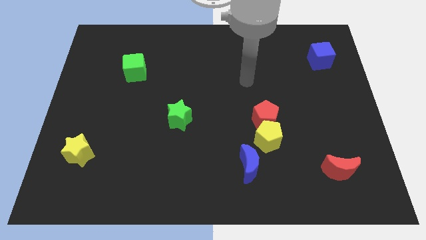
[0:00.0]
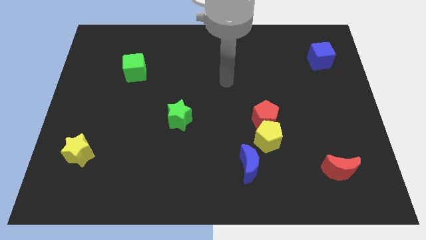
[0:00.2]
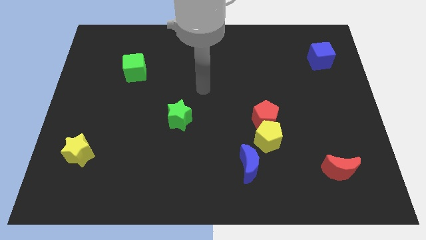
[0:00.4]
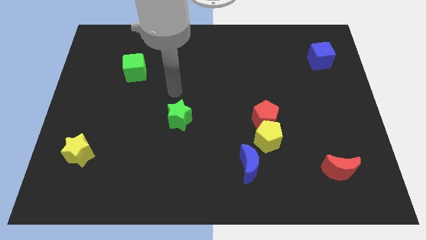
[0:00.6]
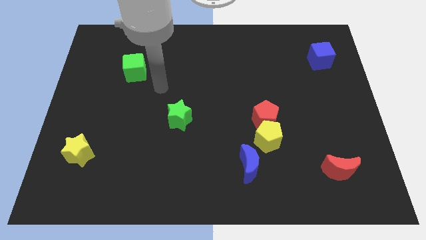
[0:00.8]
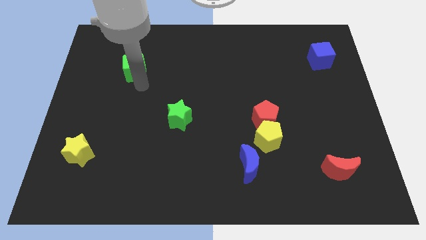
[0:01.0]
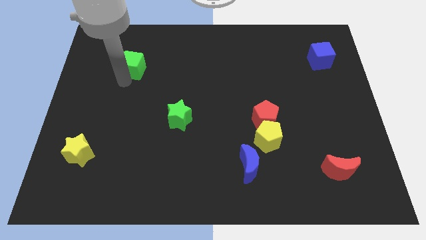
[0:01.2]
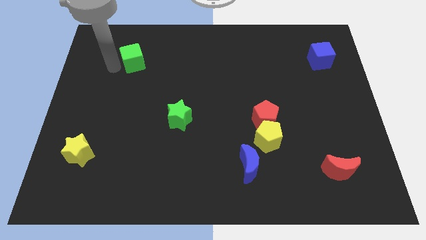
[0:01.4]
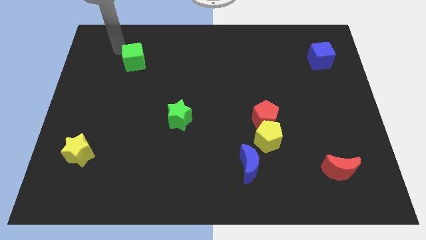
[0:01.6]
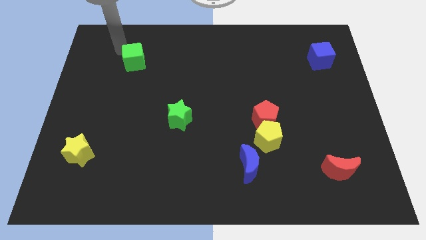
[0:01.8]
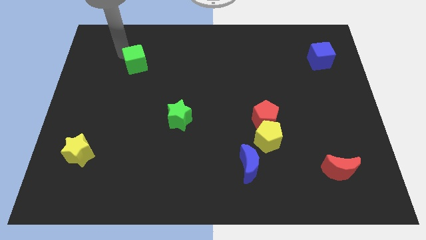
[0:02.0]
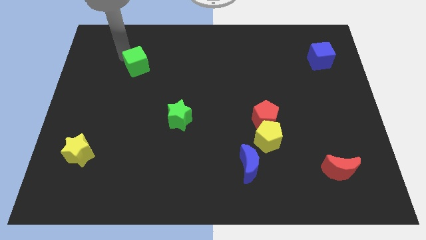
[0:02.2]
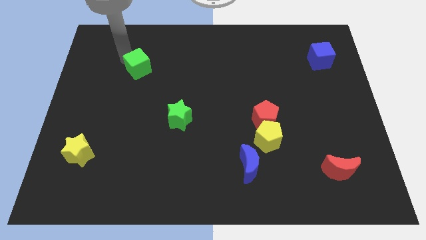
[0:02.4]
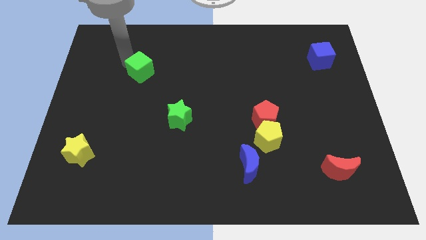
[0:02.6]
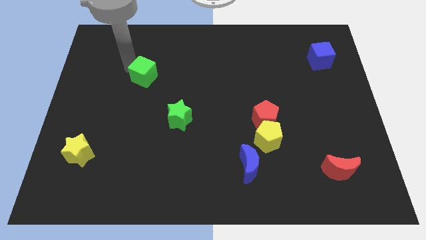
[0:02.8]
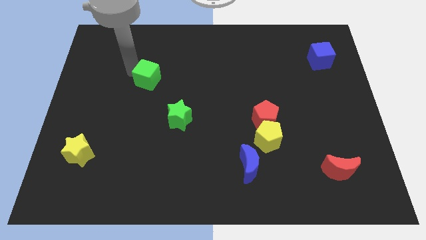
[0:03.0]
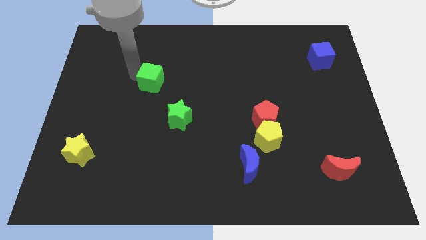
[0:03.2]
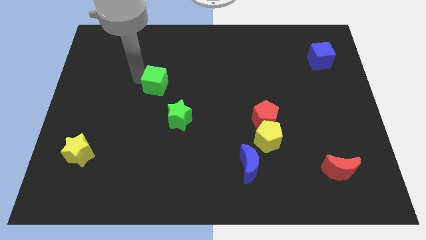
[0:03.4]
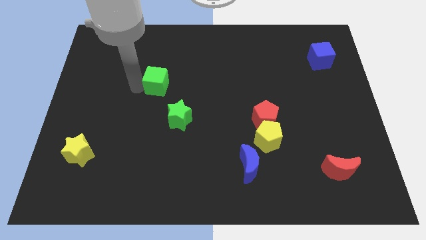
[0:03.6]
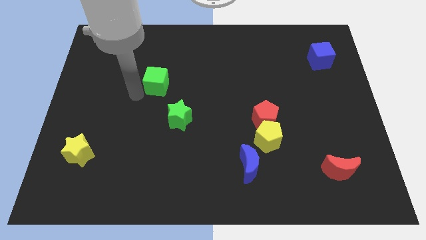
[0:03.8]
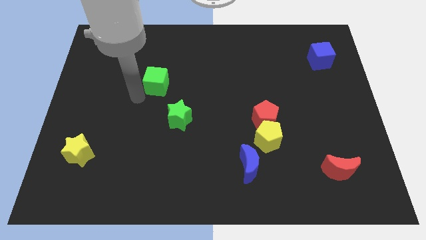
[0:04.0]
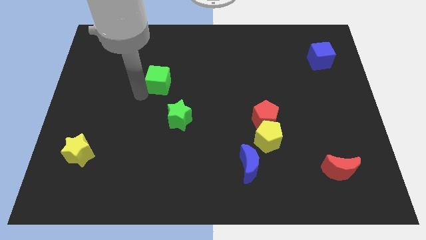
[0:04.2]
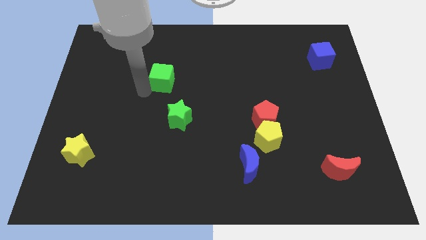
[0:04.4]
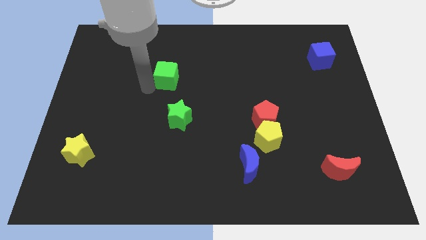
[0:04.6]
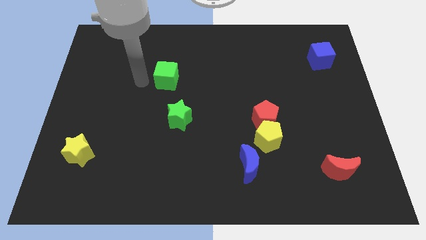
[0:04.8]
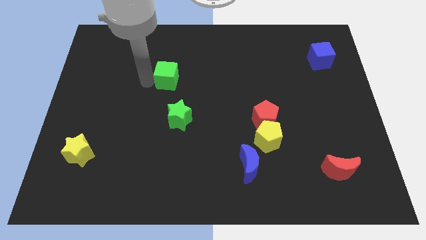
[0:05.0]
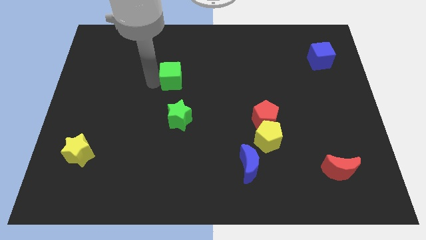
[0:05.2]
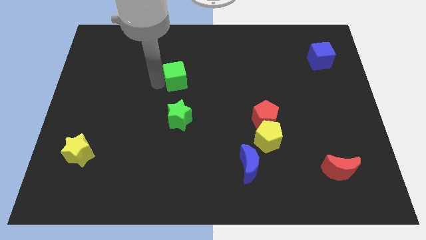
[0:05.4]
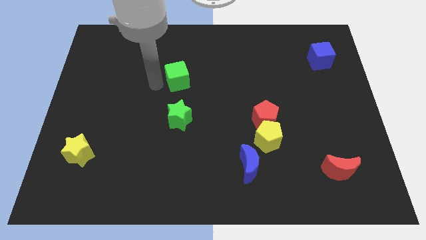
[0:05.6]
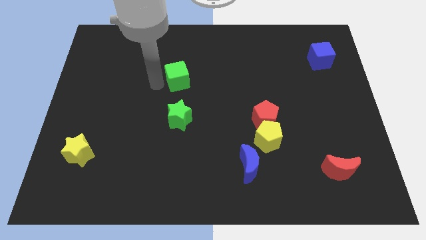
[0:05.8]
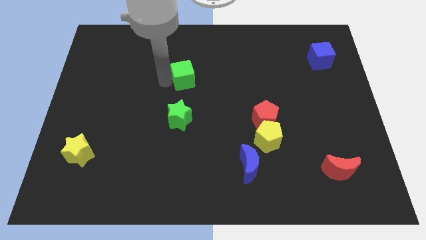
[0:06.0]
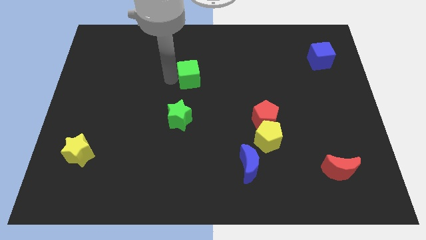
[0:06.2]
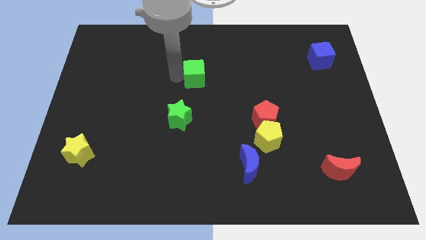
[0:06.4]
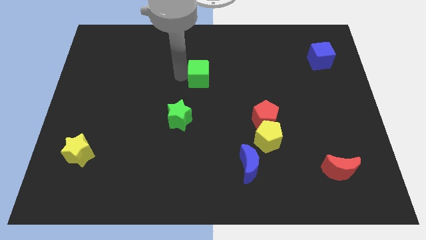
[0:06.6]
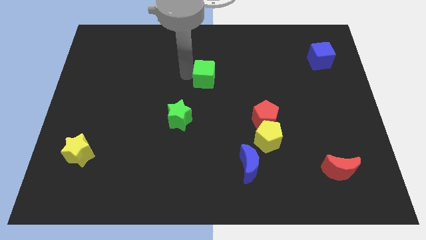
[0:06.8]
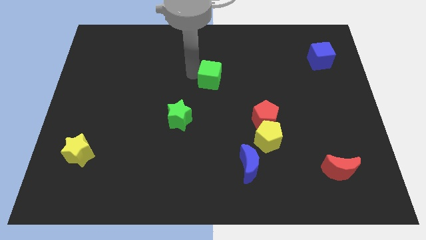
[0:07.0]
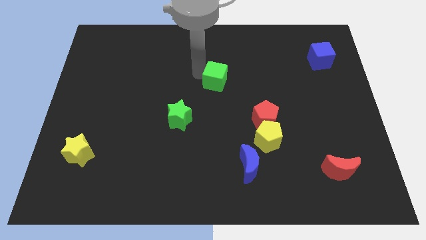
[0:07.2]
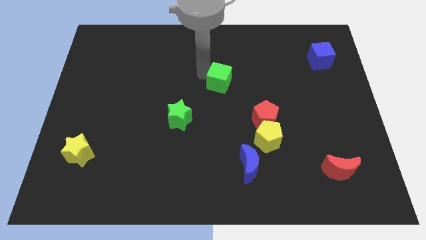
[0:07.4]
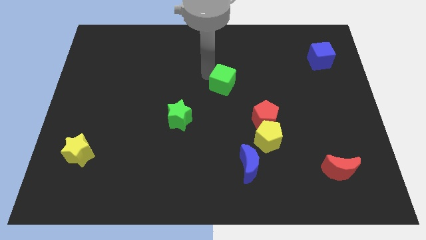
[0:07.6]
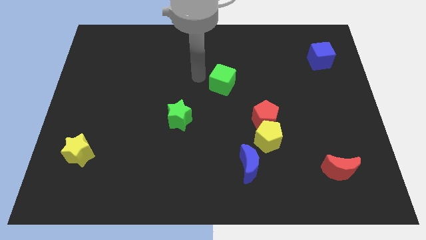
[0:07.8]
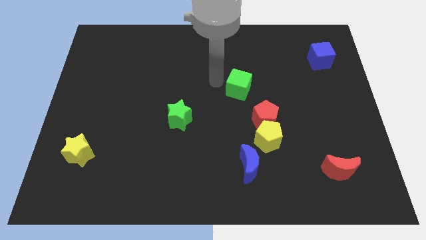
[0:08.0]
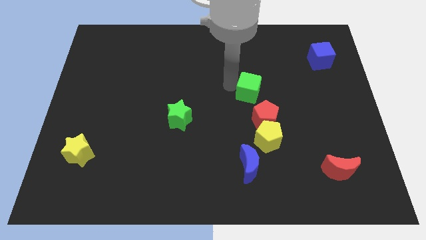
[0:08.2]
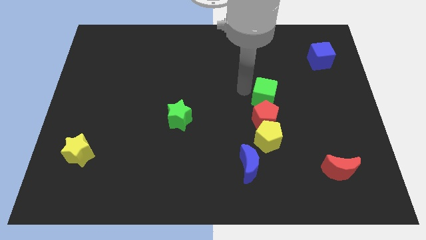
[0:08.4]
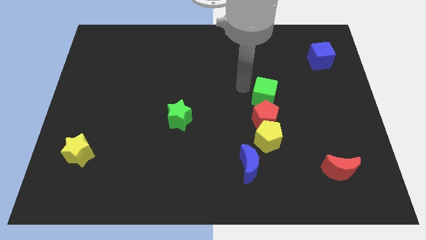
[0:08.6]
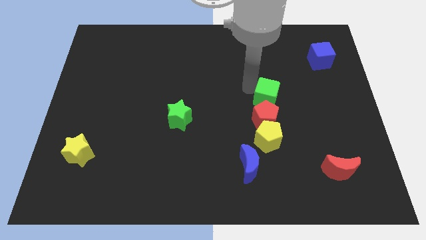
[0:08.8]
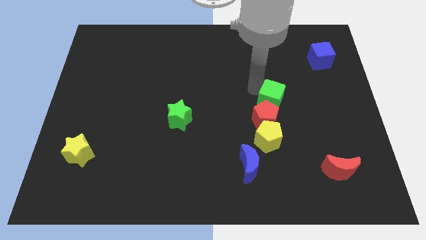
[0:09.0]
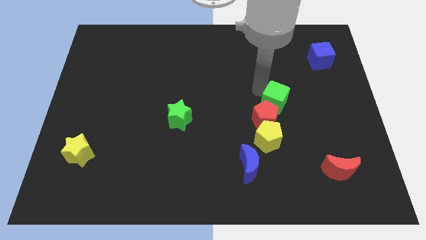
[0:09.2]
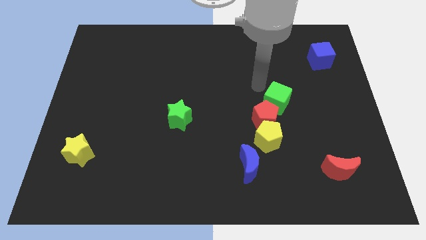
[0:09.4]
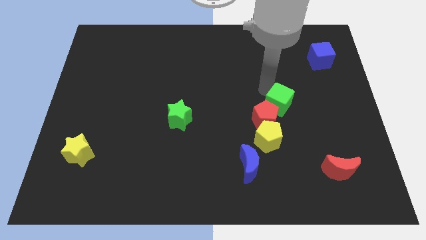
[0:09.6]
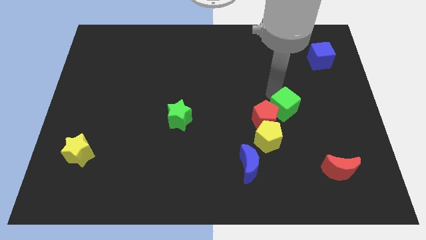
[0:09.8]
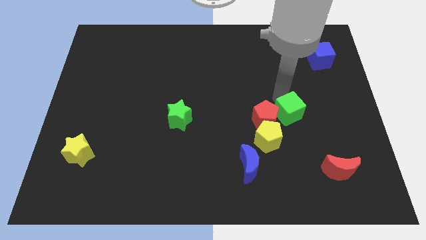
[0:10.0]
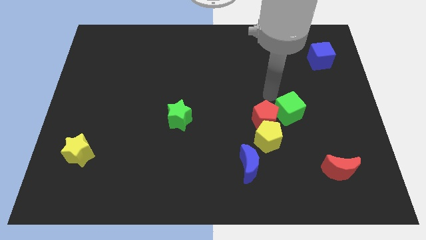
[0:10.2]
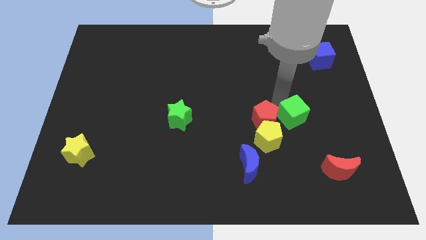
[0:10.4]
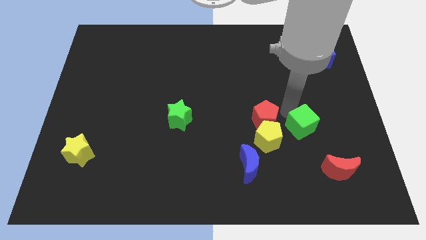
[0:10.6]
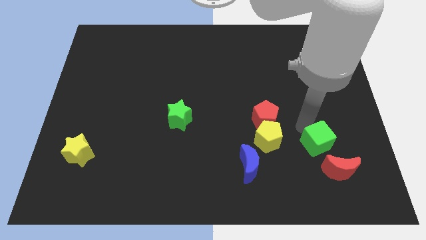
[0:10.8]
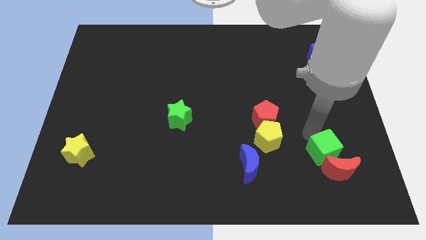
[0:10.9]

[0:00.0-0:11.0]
move the green cube to the red moon

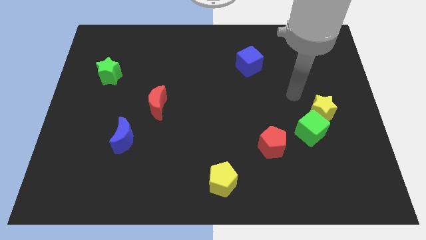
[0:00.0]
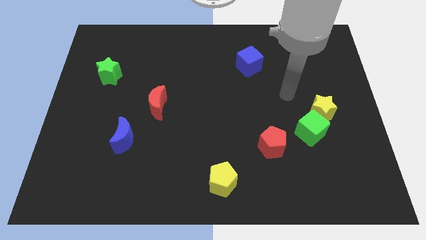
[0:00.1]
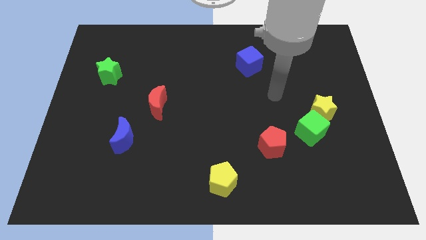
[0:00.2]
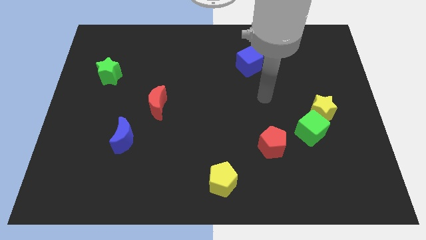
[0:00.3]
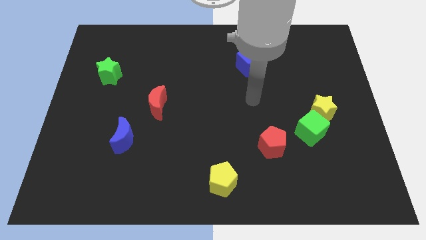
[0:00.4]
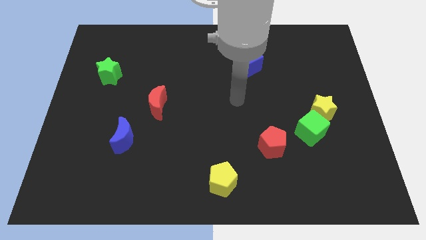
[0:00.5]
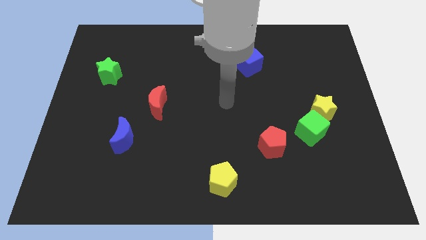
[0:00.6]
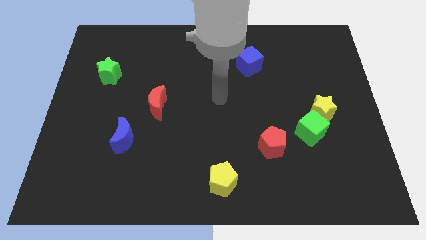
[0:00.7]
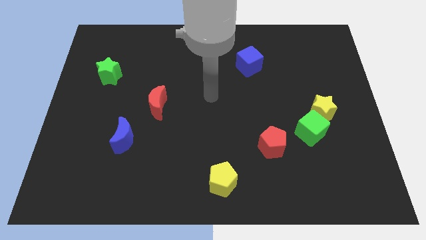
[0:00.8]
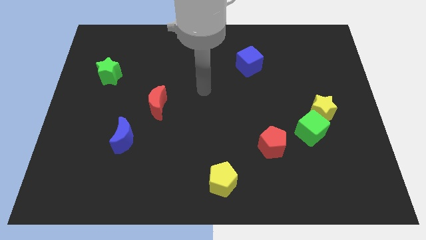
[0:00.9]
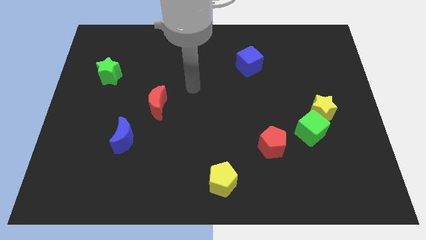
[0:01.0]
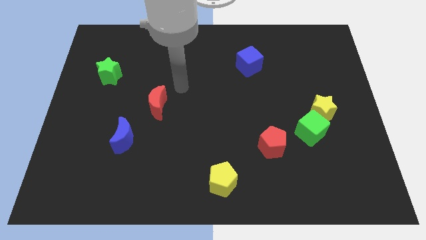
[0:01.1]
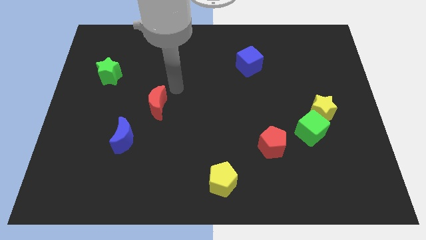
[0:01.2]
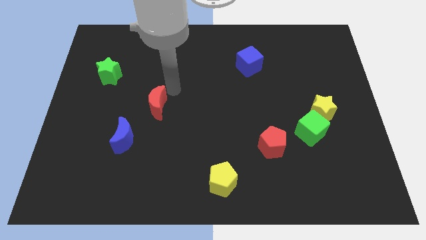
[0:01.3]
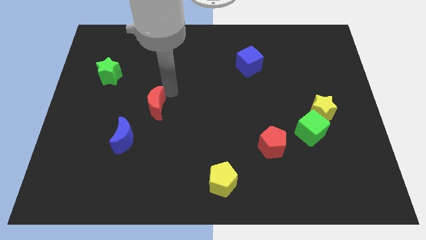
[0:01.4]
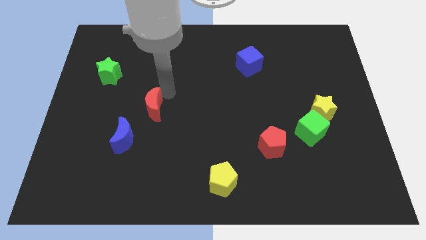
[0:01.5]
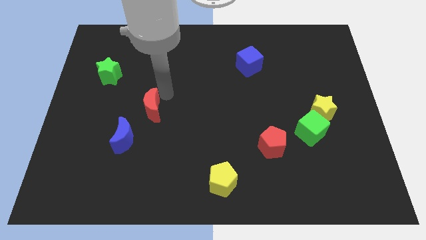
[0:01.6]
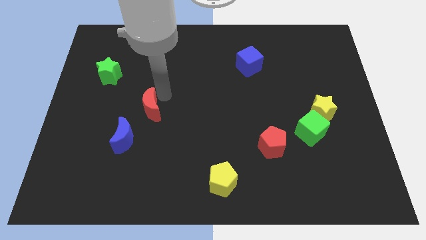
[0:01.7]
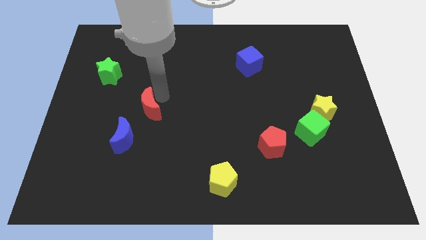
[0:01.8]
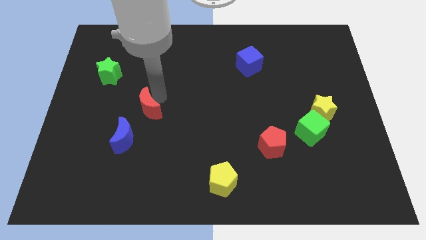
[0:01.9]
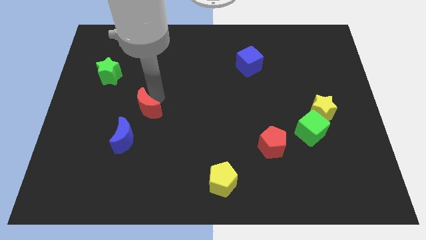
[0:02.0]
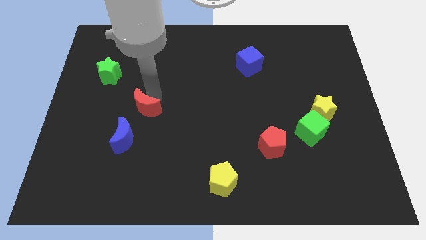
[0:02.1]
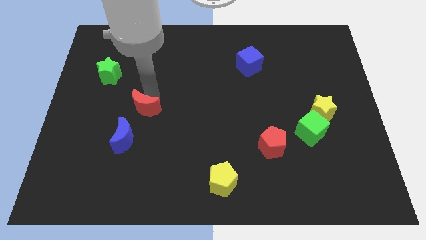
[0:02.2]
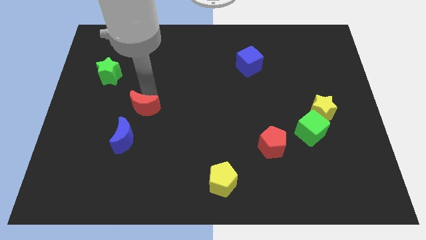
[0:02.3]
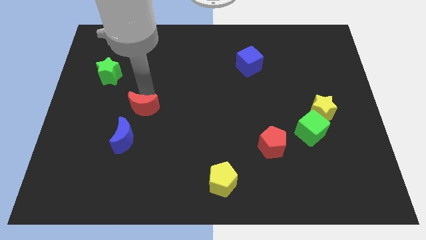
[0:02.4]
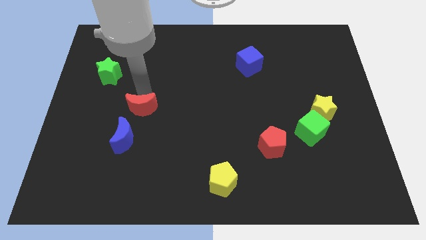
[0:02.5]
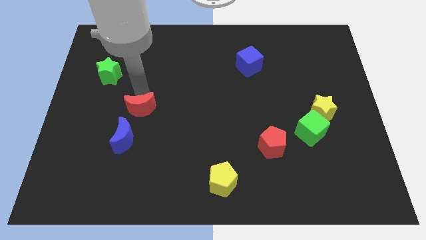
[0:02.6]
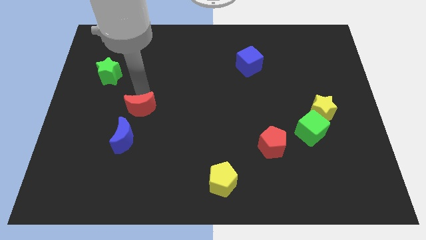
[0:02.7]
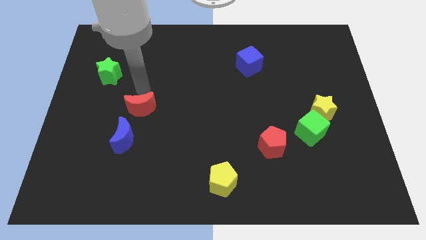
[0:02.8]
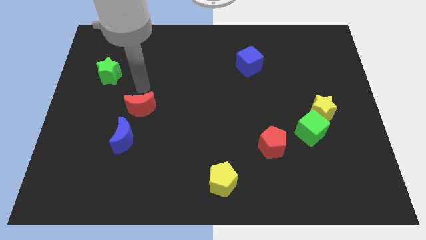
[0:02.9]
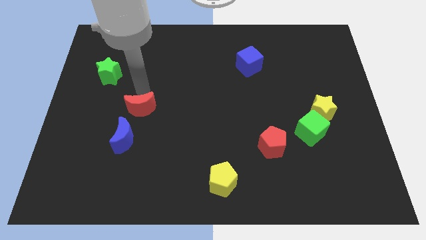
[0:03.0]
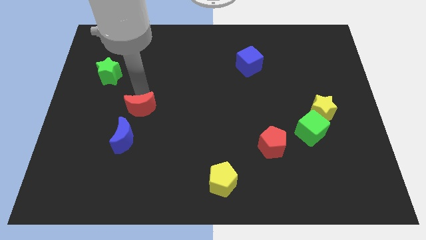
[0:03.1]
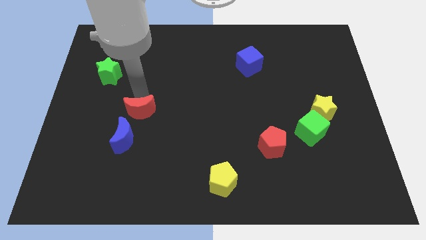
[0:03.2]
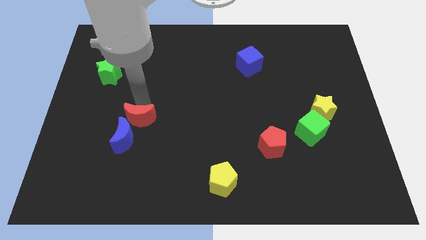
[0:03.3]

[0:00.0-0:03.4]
slide the red moon close to the blue moon
